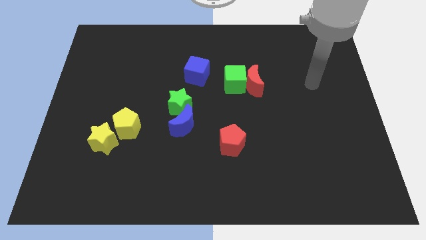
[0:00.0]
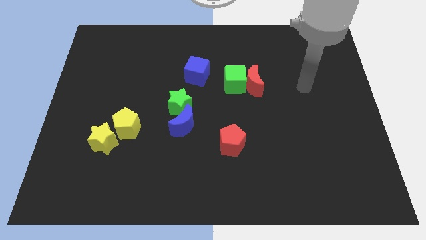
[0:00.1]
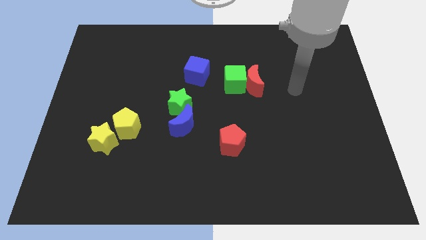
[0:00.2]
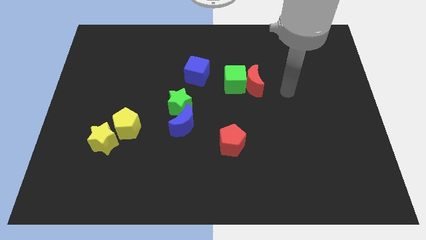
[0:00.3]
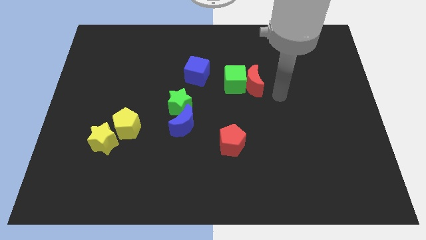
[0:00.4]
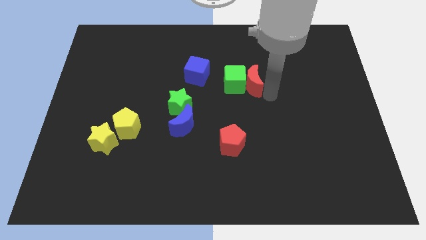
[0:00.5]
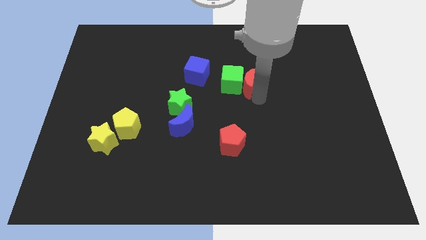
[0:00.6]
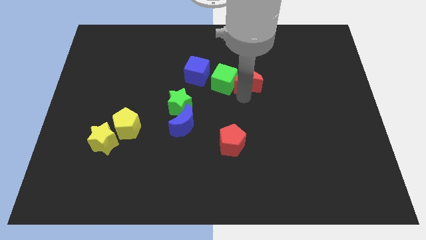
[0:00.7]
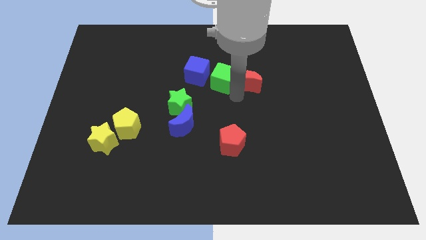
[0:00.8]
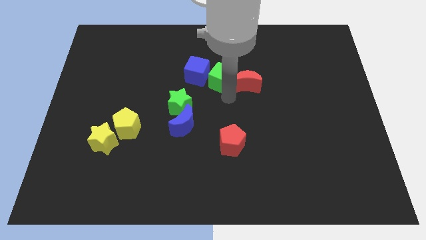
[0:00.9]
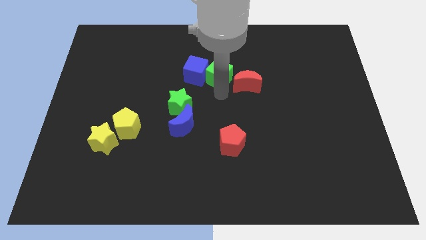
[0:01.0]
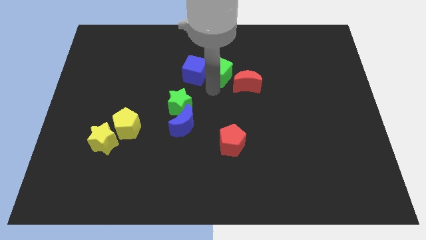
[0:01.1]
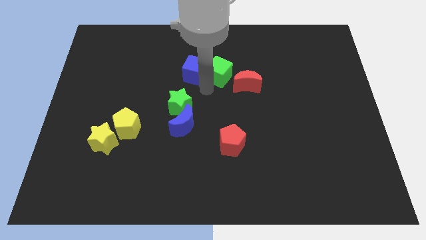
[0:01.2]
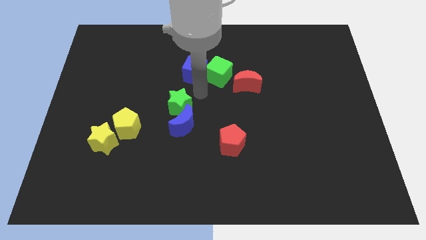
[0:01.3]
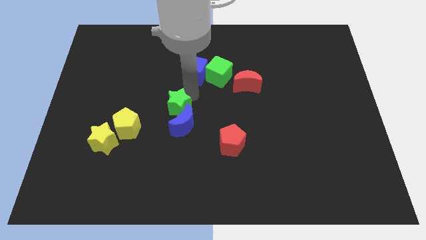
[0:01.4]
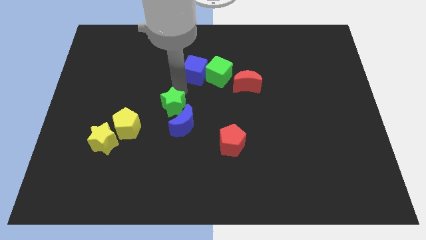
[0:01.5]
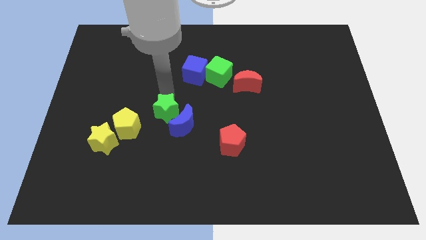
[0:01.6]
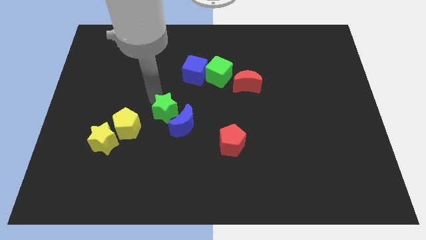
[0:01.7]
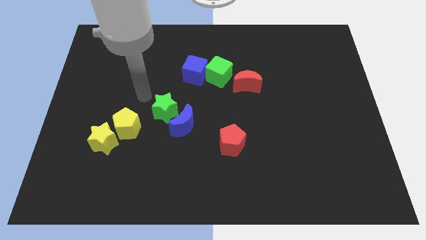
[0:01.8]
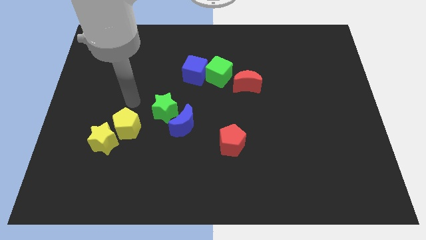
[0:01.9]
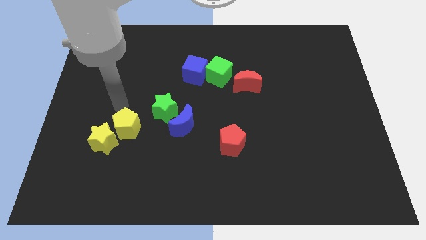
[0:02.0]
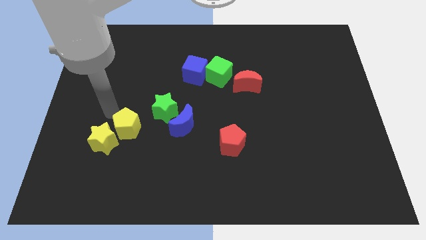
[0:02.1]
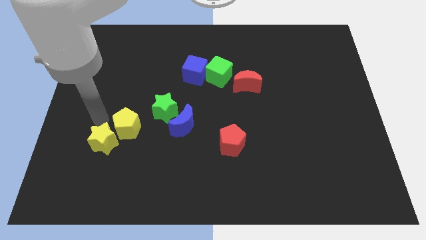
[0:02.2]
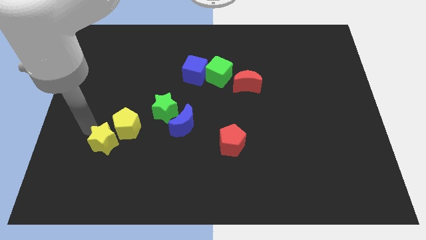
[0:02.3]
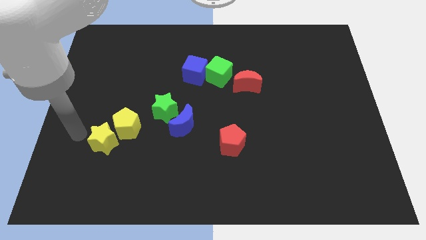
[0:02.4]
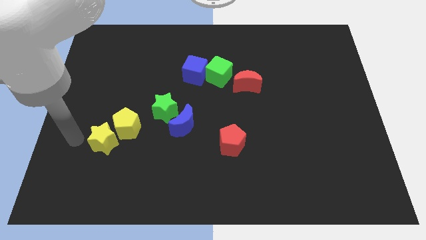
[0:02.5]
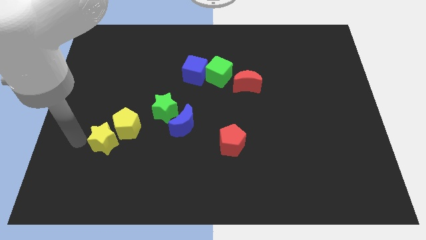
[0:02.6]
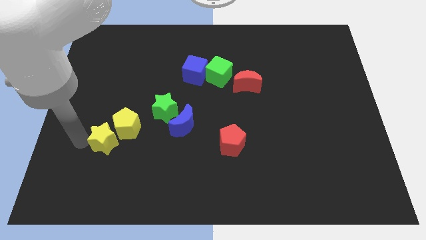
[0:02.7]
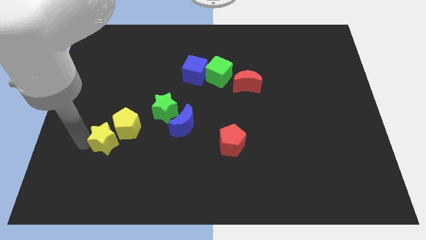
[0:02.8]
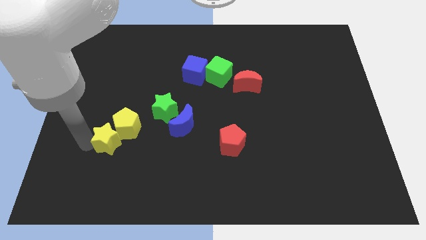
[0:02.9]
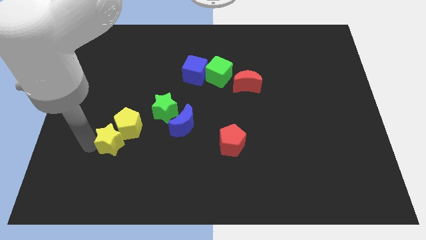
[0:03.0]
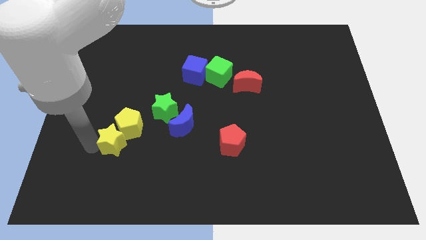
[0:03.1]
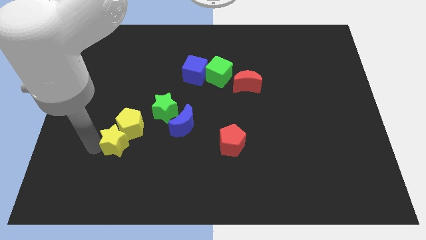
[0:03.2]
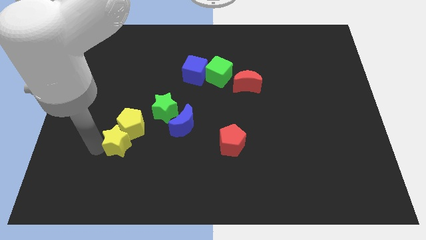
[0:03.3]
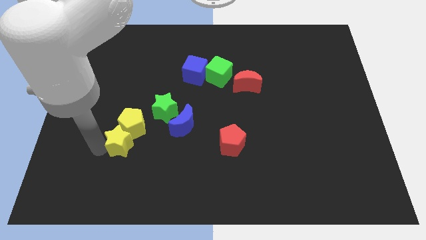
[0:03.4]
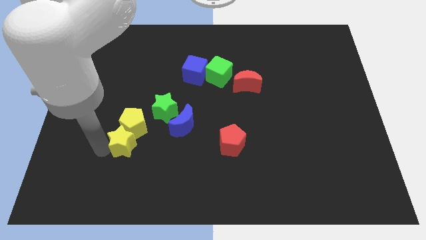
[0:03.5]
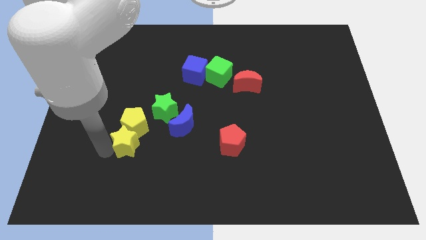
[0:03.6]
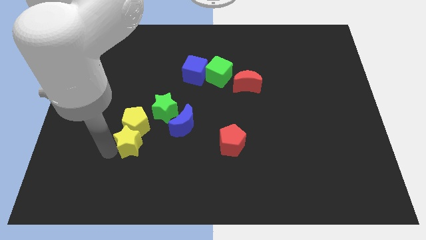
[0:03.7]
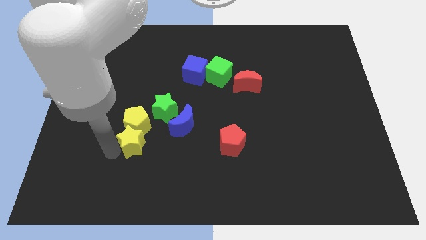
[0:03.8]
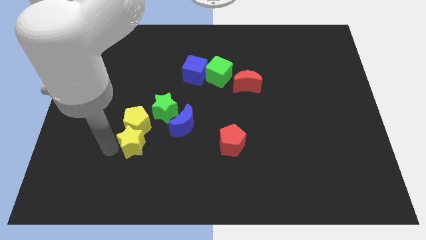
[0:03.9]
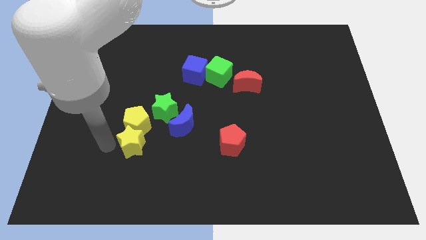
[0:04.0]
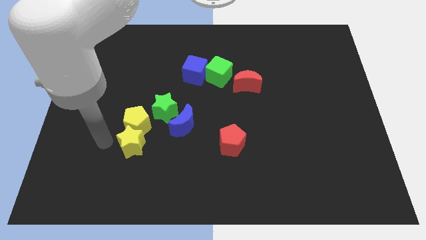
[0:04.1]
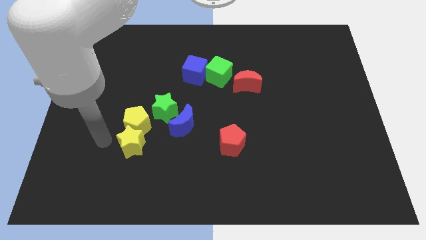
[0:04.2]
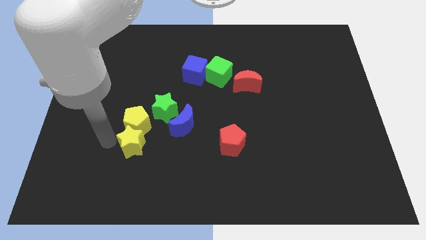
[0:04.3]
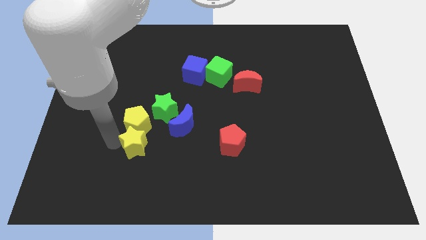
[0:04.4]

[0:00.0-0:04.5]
slide the yellow star right somewhat

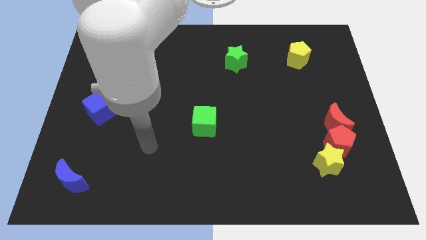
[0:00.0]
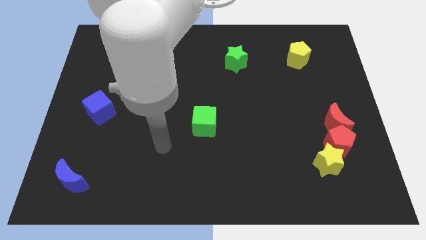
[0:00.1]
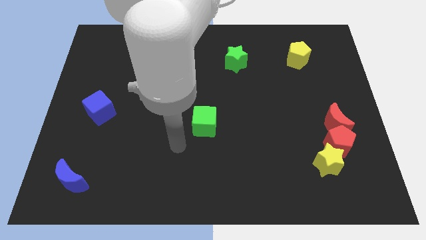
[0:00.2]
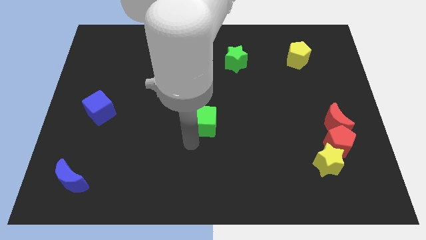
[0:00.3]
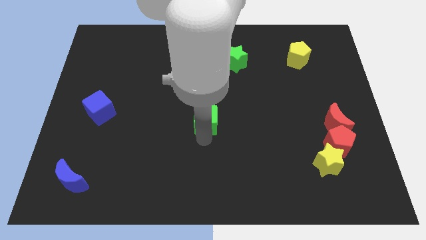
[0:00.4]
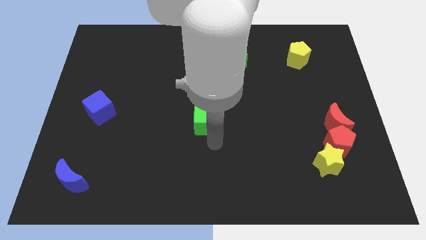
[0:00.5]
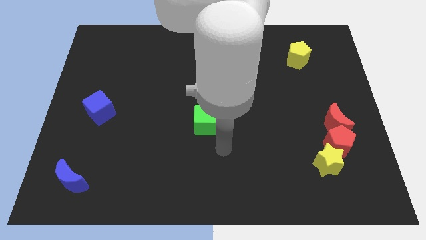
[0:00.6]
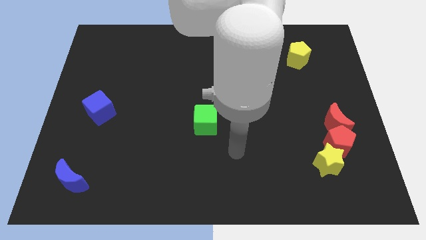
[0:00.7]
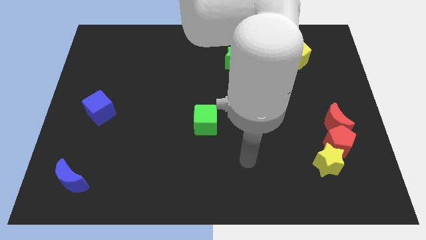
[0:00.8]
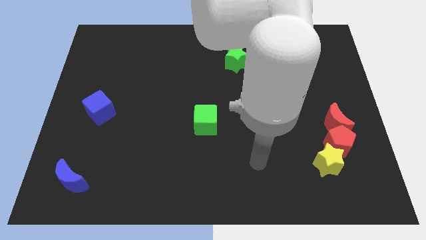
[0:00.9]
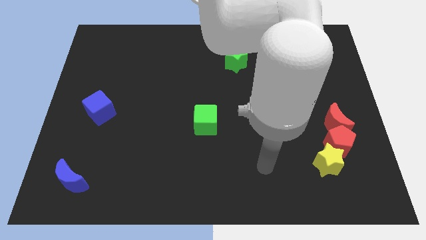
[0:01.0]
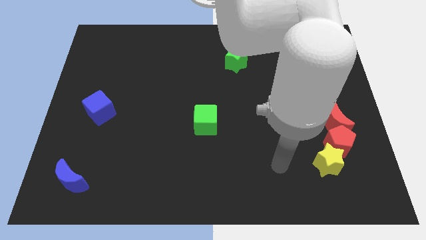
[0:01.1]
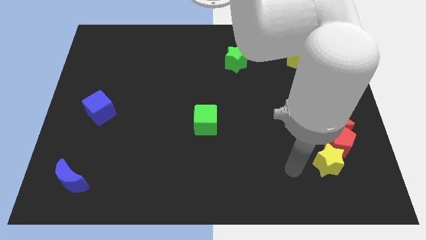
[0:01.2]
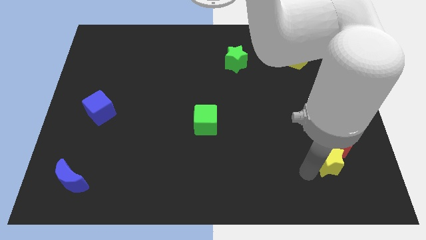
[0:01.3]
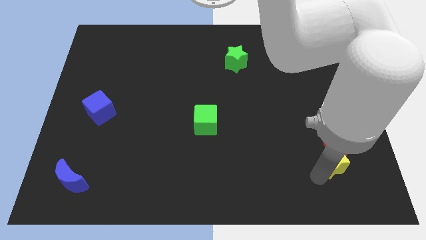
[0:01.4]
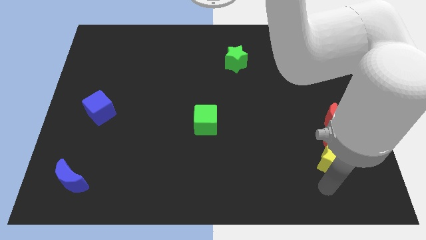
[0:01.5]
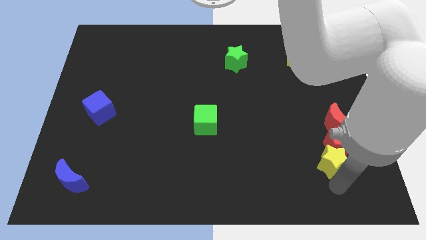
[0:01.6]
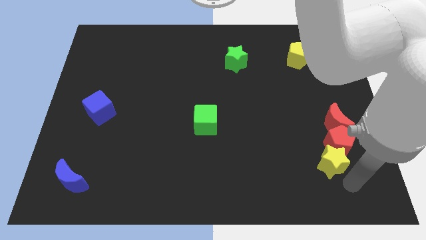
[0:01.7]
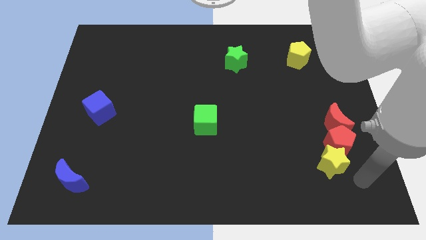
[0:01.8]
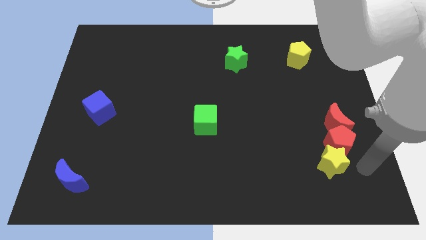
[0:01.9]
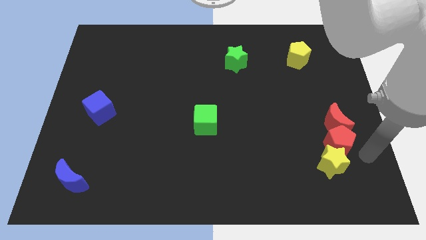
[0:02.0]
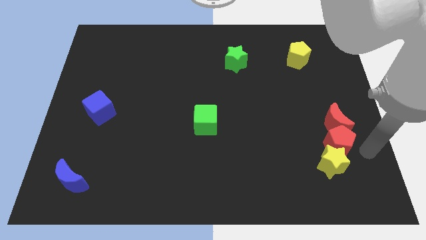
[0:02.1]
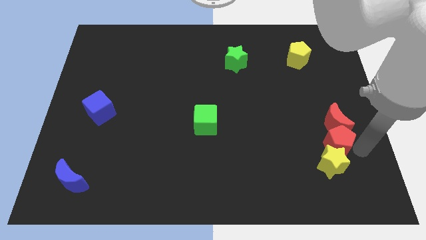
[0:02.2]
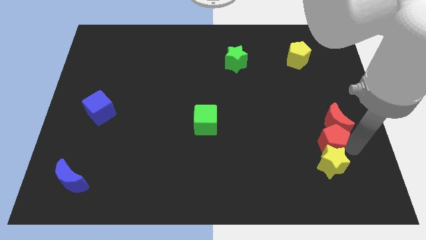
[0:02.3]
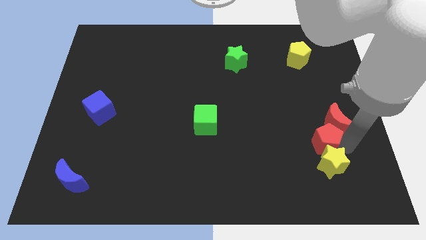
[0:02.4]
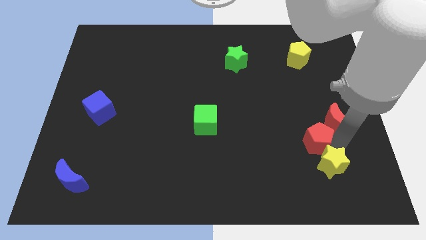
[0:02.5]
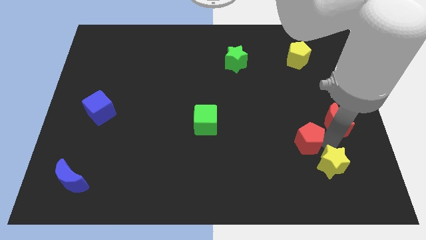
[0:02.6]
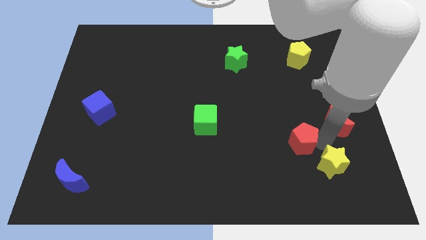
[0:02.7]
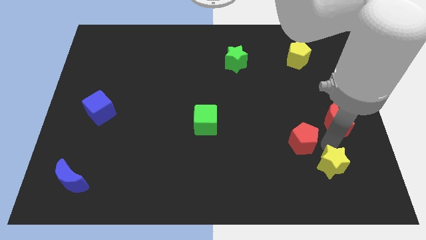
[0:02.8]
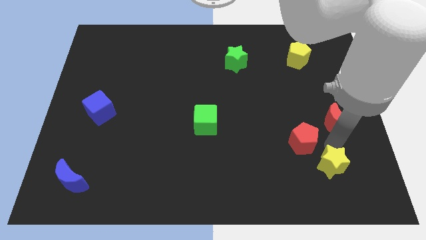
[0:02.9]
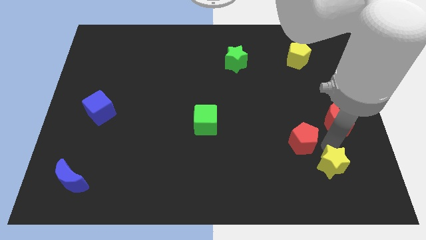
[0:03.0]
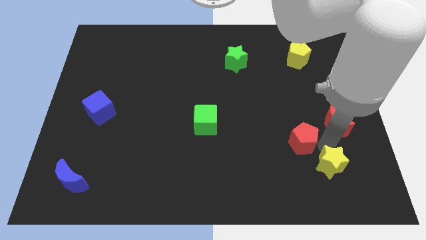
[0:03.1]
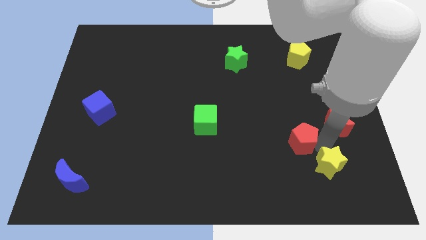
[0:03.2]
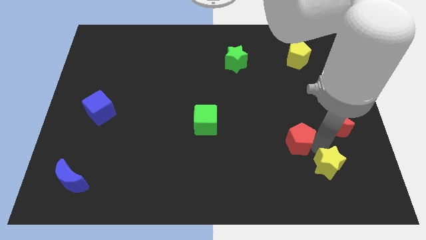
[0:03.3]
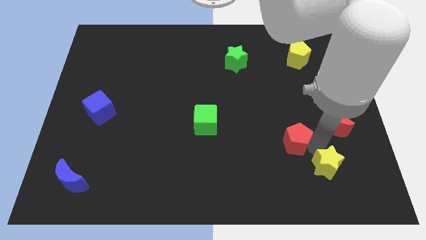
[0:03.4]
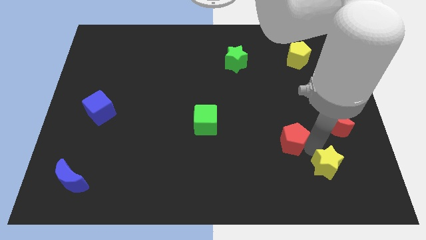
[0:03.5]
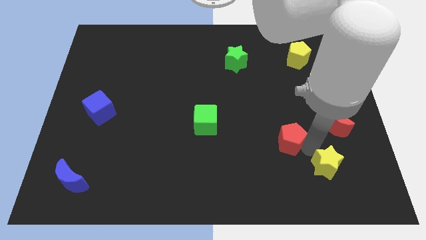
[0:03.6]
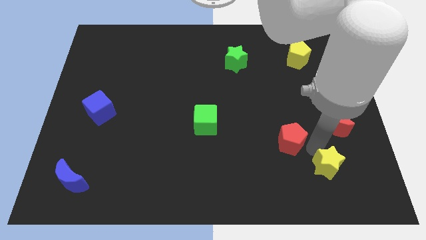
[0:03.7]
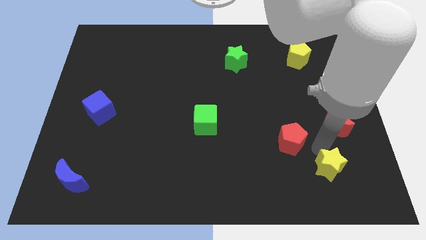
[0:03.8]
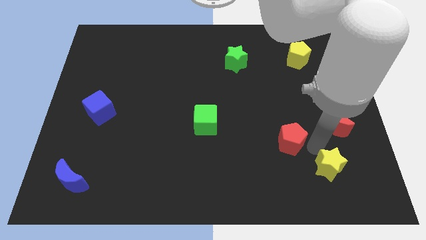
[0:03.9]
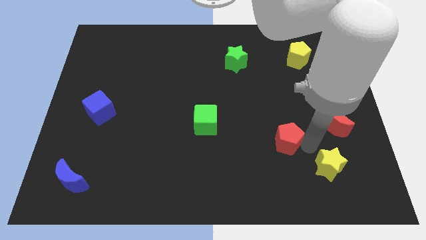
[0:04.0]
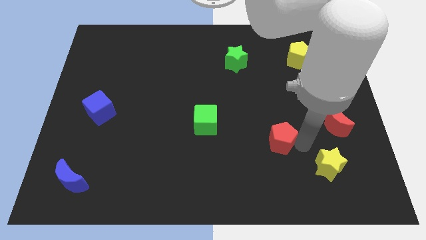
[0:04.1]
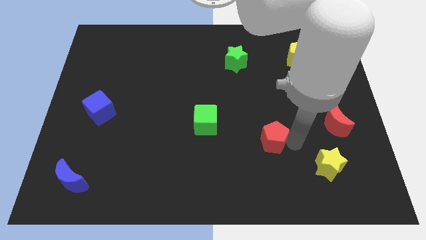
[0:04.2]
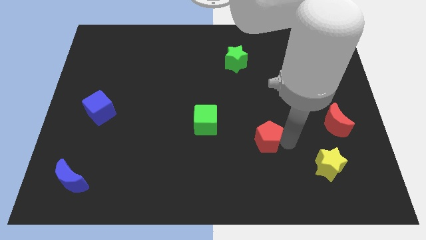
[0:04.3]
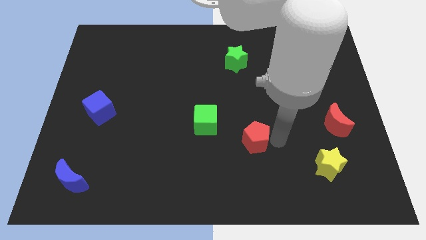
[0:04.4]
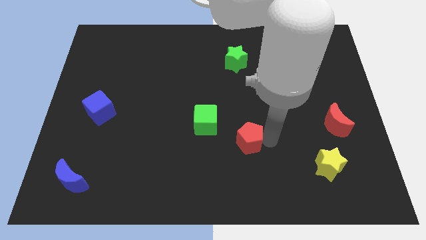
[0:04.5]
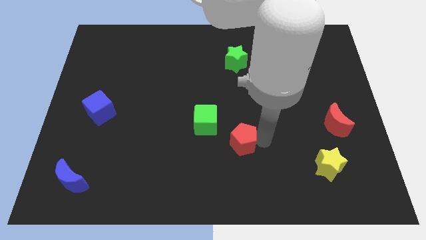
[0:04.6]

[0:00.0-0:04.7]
move the red pentagon to the left
